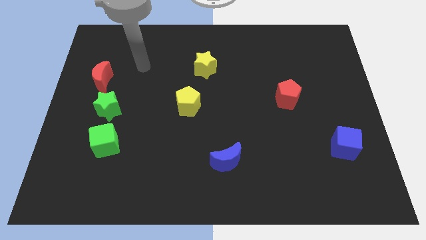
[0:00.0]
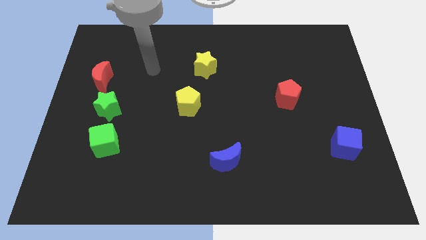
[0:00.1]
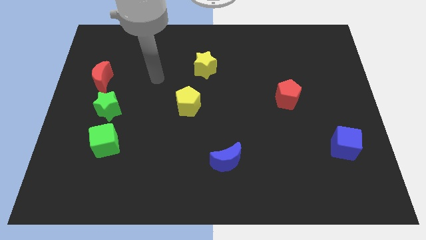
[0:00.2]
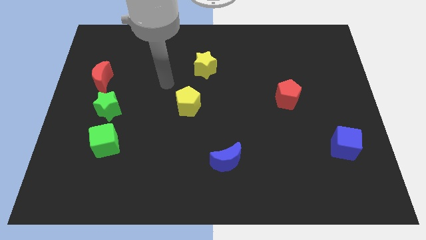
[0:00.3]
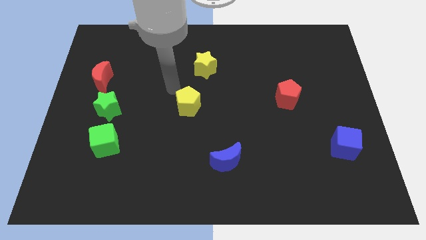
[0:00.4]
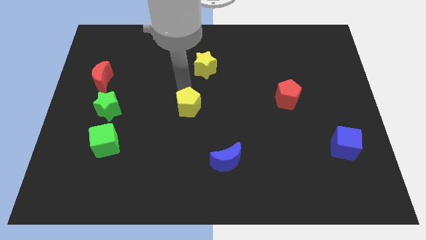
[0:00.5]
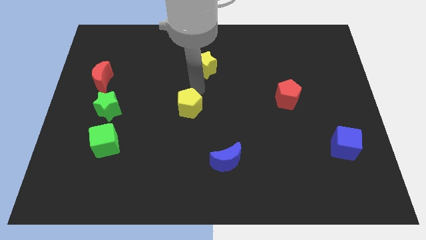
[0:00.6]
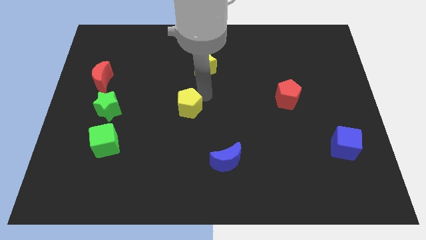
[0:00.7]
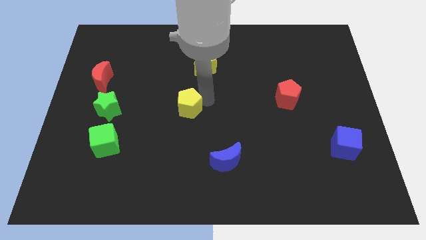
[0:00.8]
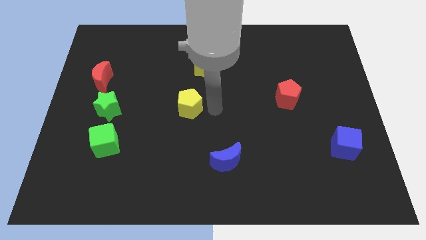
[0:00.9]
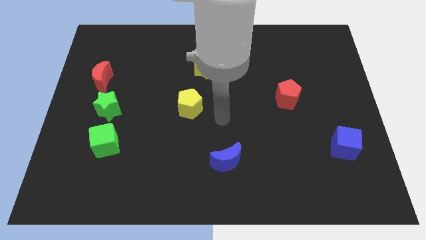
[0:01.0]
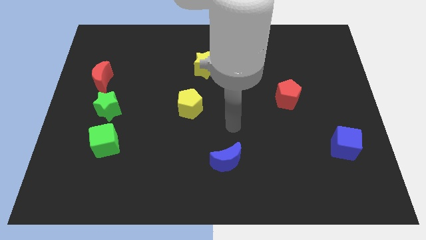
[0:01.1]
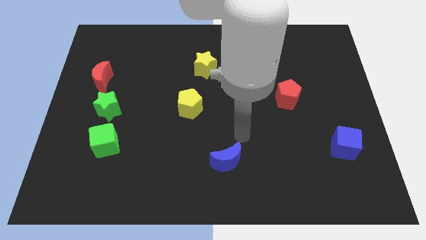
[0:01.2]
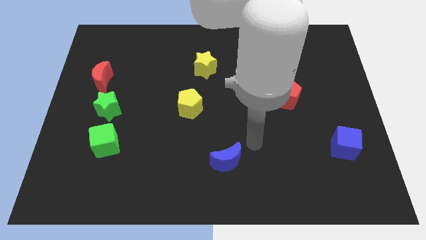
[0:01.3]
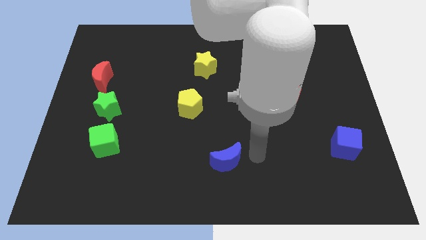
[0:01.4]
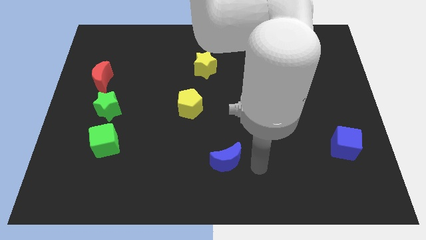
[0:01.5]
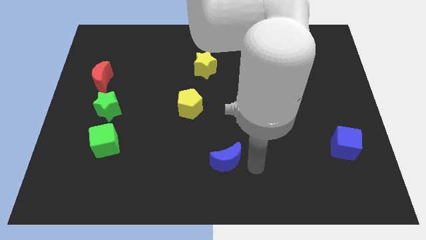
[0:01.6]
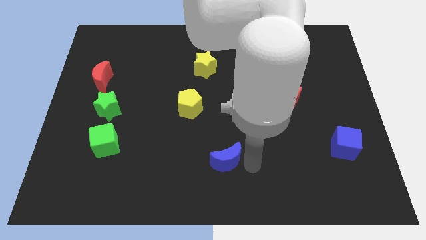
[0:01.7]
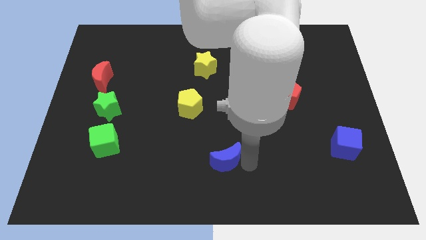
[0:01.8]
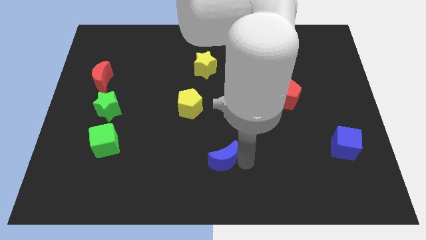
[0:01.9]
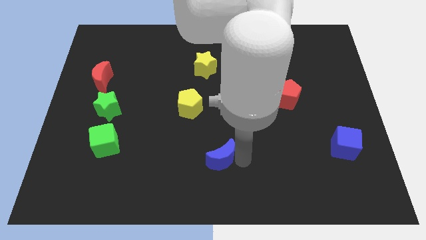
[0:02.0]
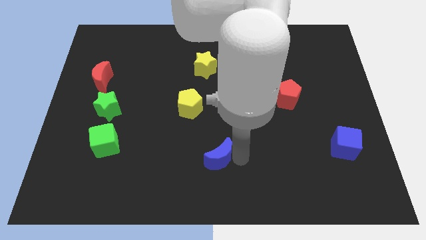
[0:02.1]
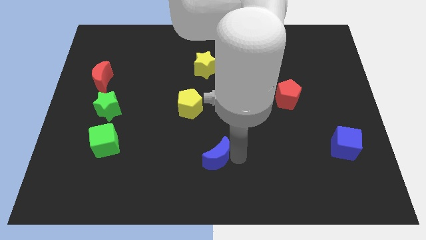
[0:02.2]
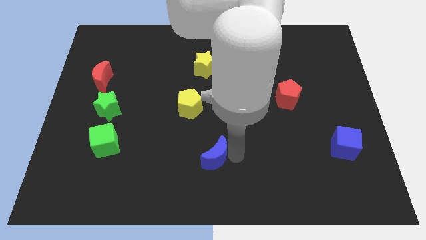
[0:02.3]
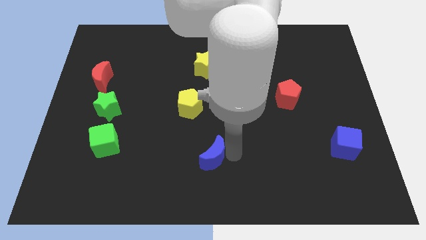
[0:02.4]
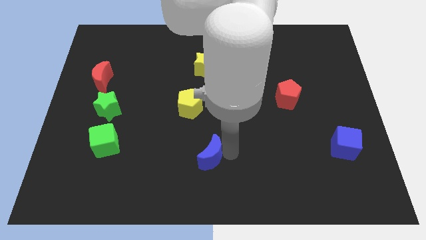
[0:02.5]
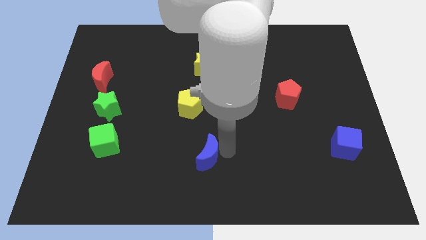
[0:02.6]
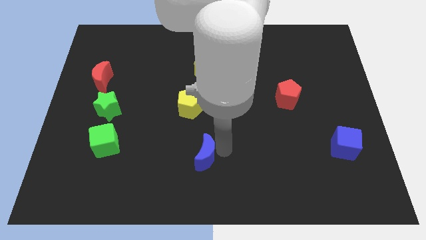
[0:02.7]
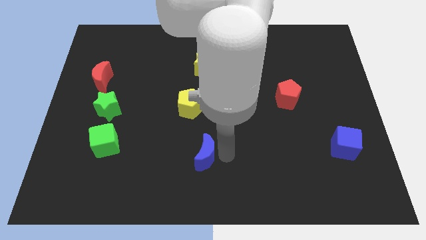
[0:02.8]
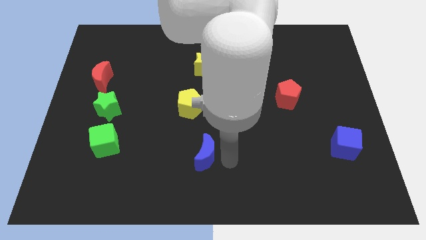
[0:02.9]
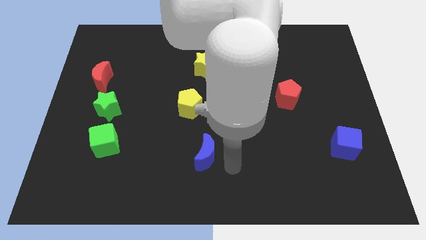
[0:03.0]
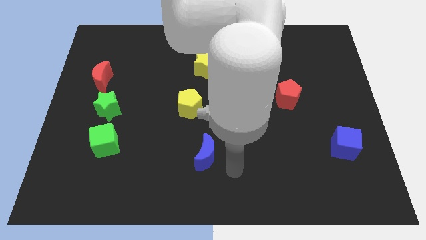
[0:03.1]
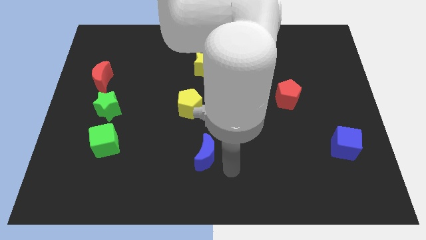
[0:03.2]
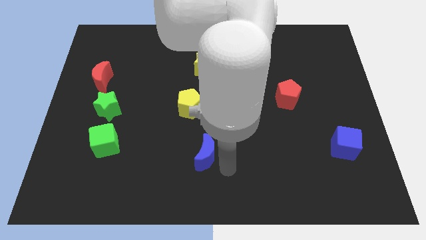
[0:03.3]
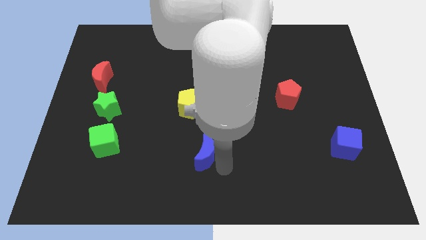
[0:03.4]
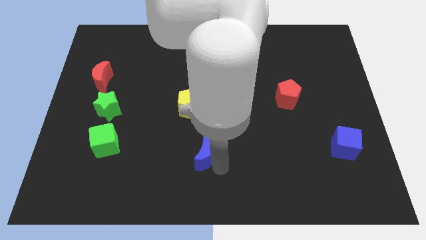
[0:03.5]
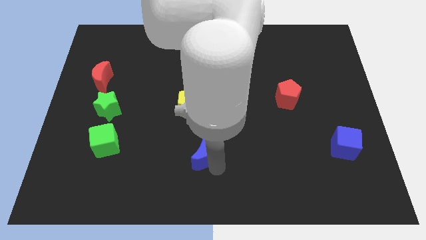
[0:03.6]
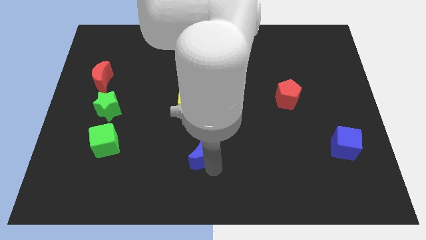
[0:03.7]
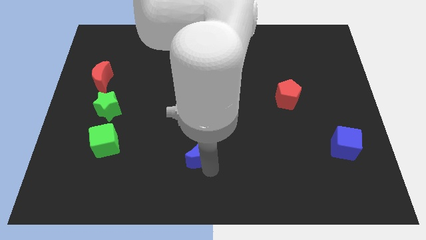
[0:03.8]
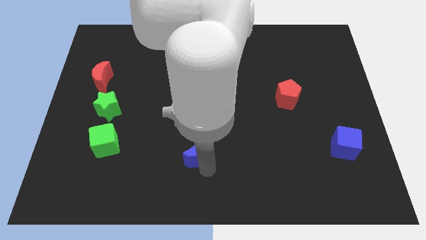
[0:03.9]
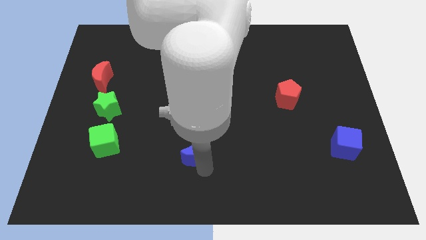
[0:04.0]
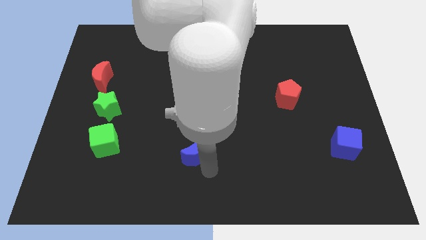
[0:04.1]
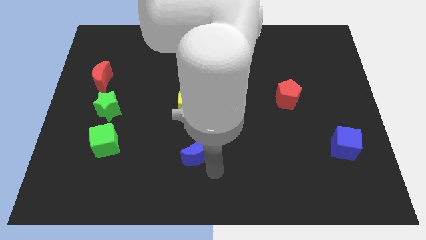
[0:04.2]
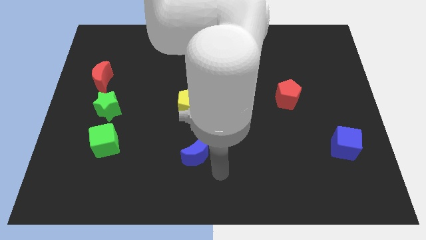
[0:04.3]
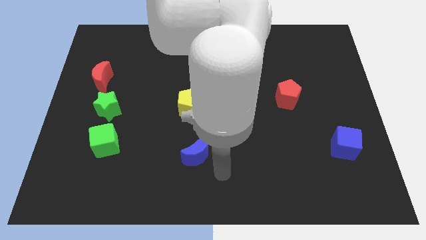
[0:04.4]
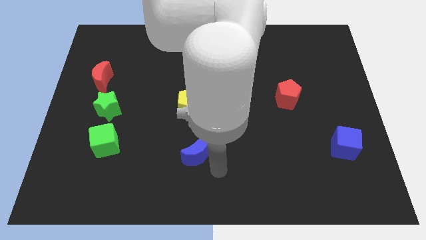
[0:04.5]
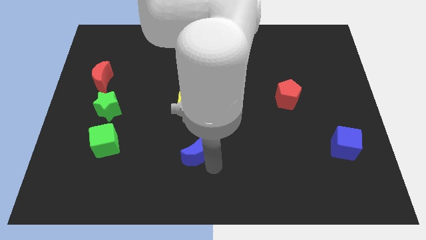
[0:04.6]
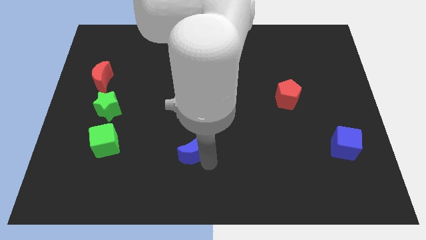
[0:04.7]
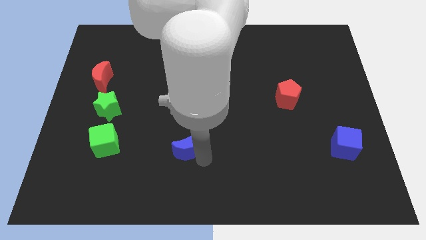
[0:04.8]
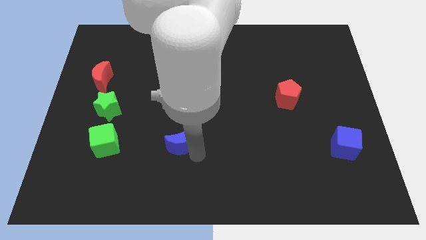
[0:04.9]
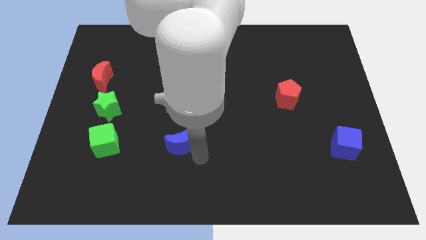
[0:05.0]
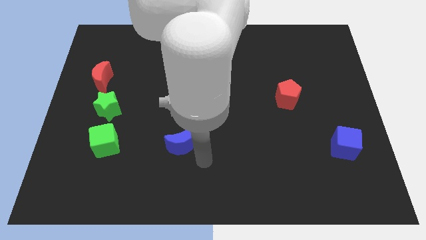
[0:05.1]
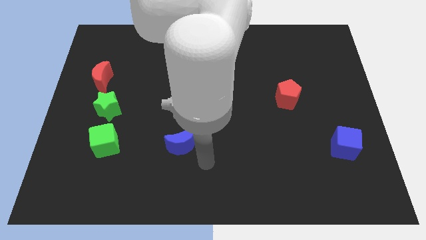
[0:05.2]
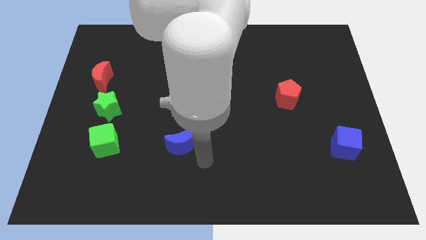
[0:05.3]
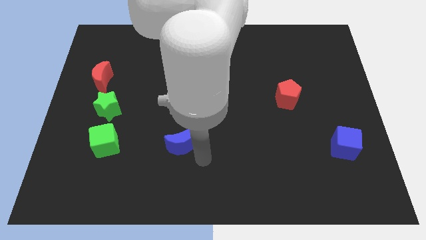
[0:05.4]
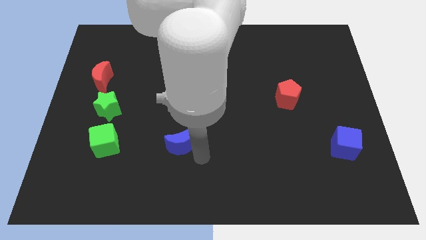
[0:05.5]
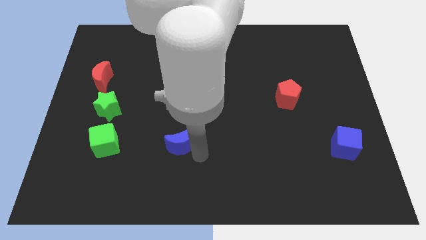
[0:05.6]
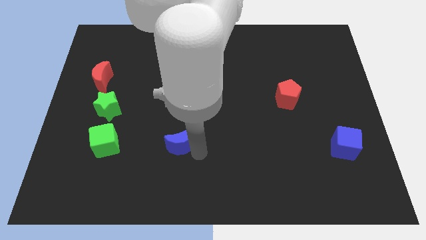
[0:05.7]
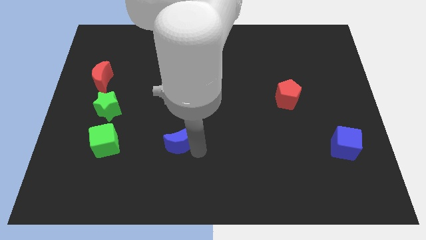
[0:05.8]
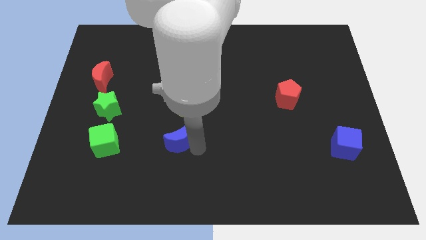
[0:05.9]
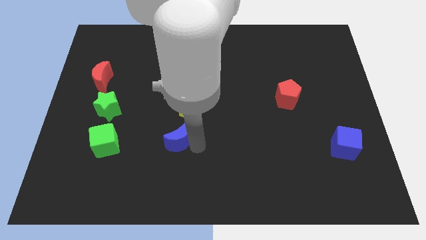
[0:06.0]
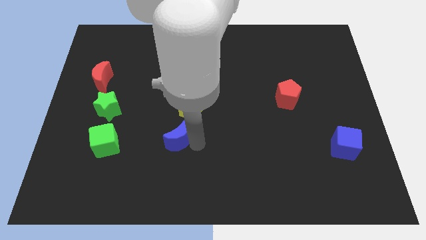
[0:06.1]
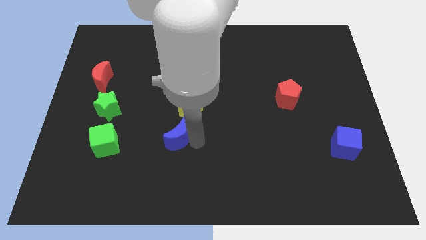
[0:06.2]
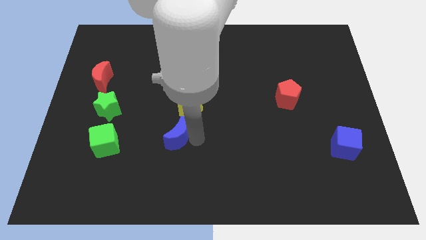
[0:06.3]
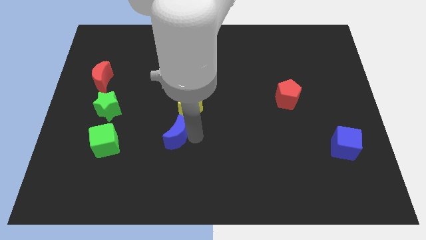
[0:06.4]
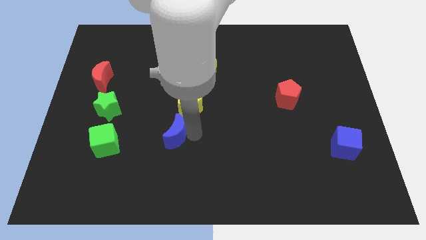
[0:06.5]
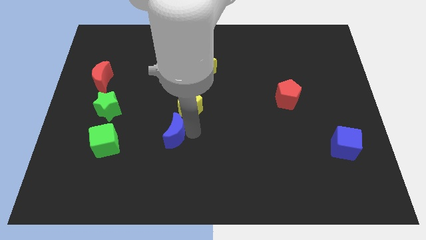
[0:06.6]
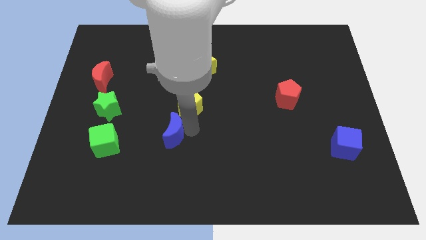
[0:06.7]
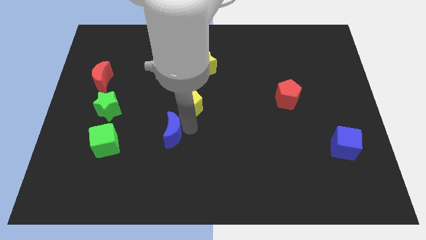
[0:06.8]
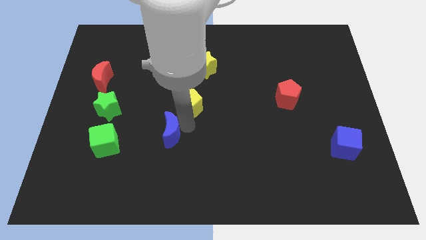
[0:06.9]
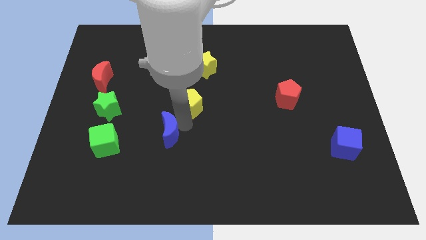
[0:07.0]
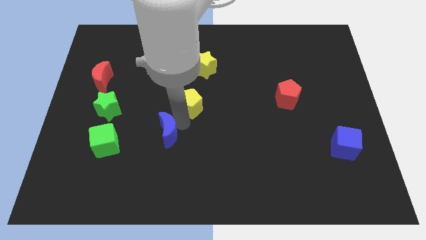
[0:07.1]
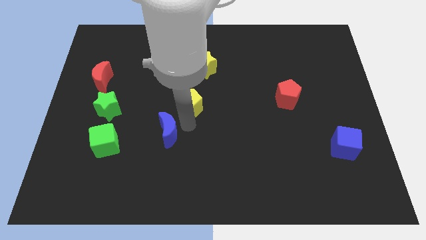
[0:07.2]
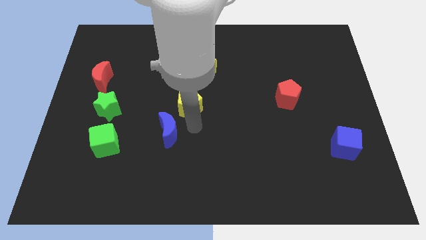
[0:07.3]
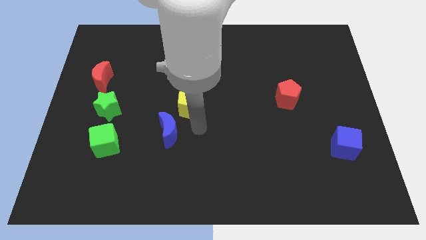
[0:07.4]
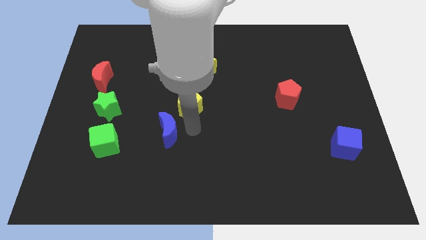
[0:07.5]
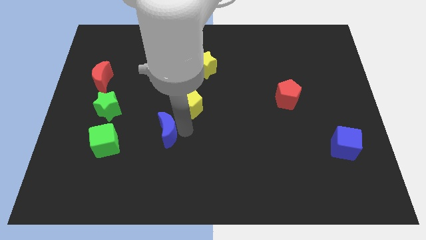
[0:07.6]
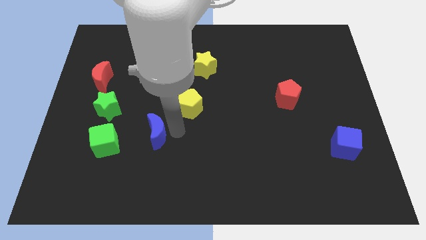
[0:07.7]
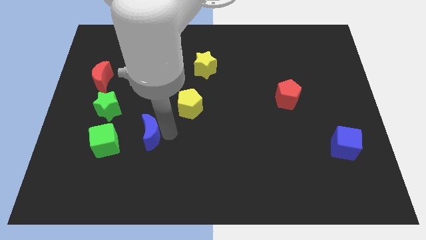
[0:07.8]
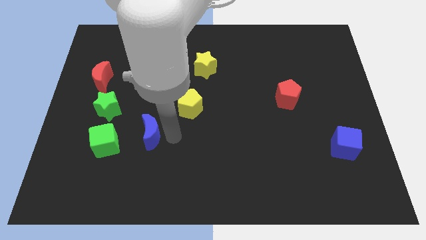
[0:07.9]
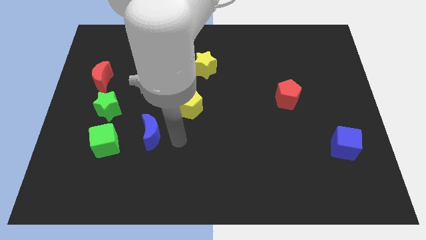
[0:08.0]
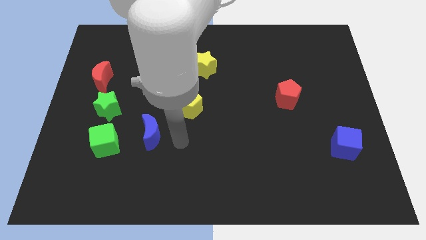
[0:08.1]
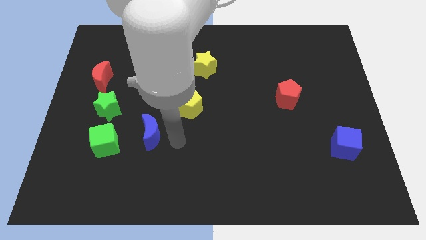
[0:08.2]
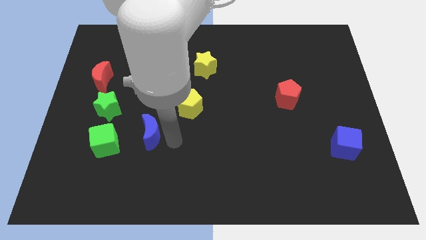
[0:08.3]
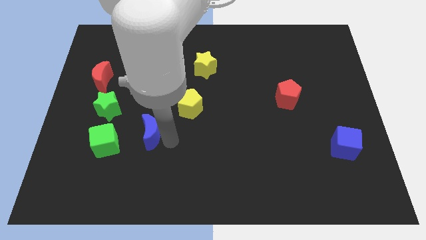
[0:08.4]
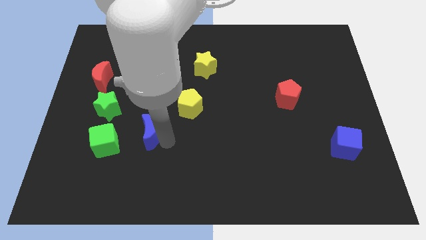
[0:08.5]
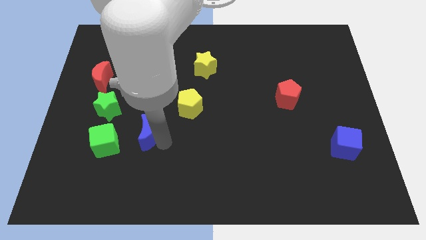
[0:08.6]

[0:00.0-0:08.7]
put the blue moon to the bottom right of the green star
